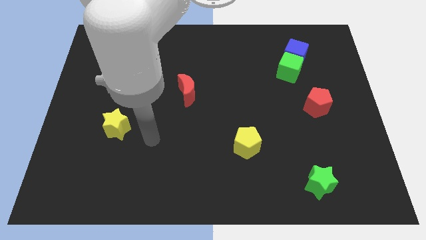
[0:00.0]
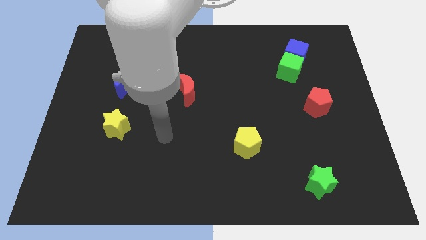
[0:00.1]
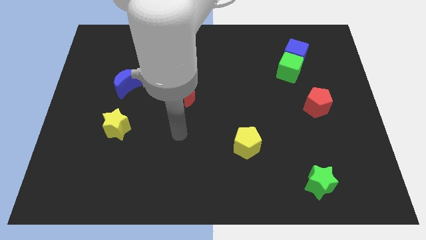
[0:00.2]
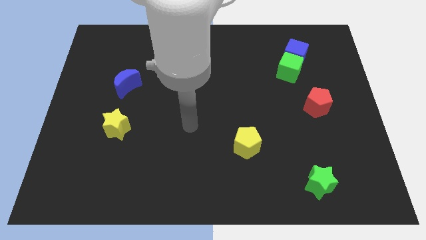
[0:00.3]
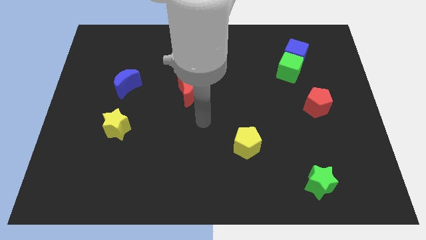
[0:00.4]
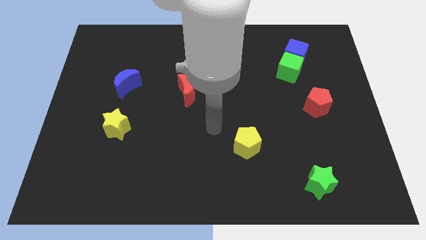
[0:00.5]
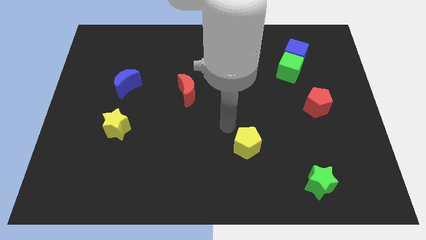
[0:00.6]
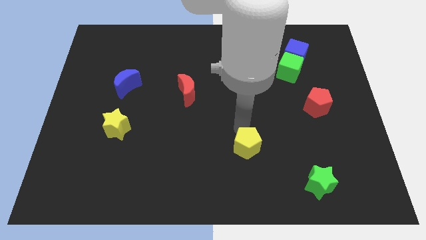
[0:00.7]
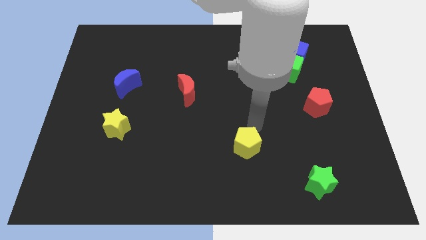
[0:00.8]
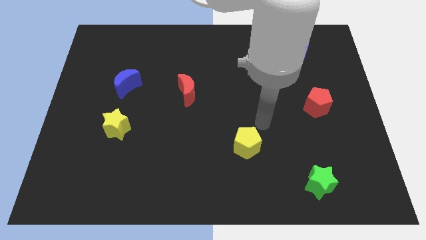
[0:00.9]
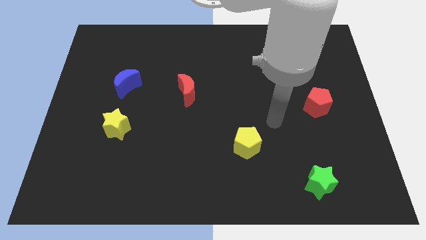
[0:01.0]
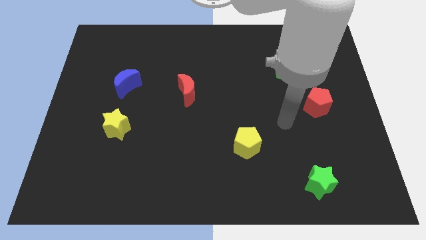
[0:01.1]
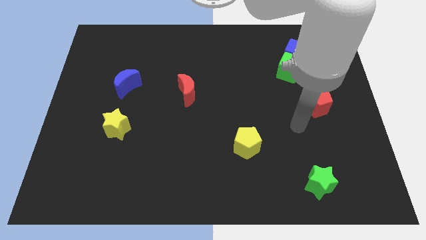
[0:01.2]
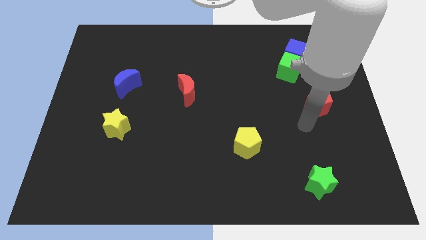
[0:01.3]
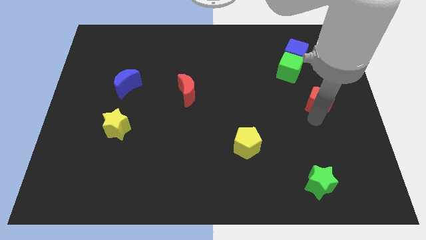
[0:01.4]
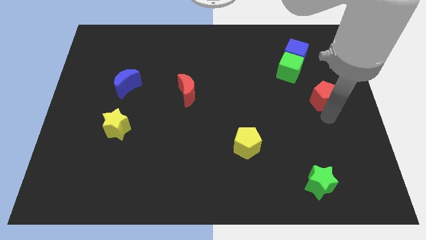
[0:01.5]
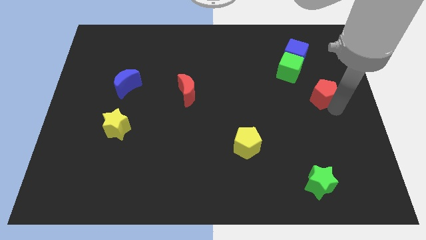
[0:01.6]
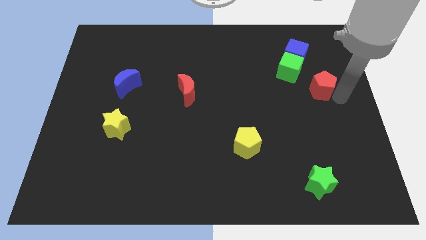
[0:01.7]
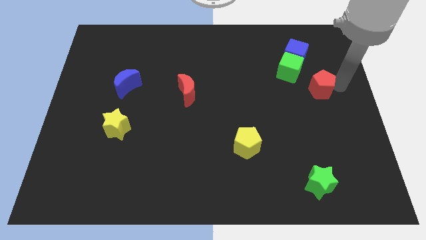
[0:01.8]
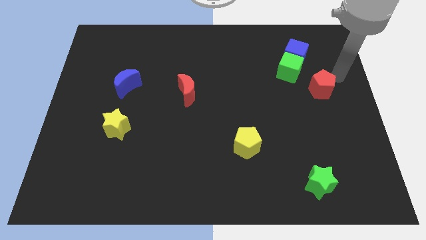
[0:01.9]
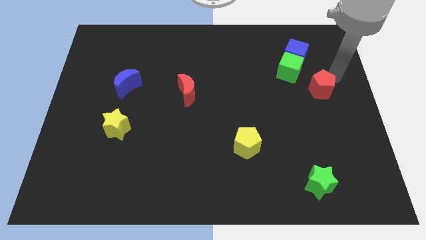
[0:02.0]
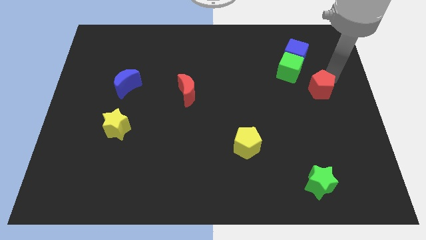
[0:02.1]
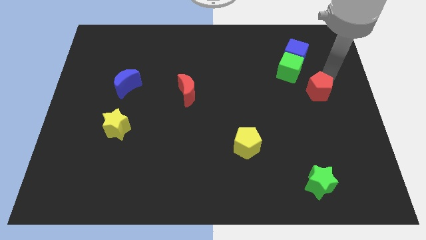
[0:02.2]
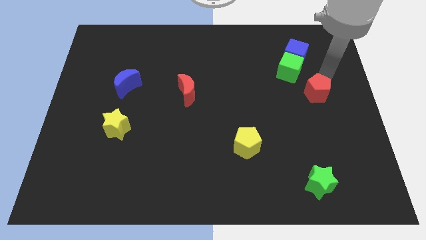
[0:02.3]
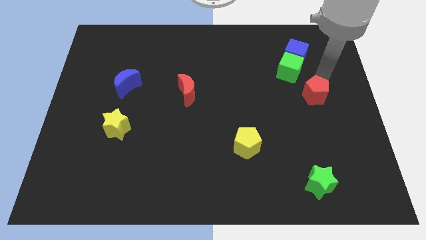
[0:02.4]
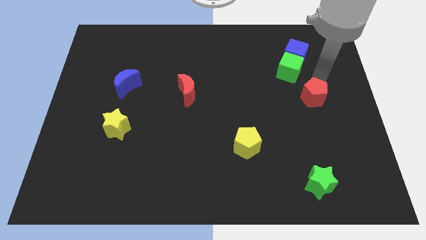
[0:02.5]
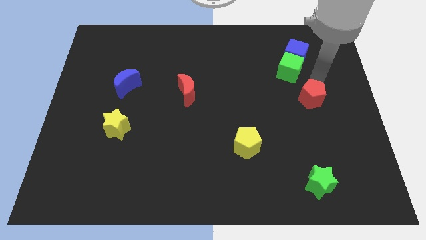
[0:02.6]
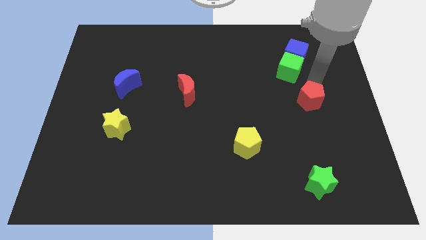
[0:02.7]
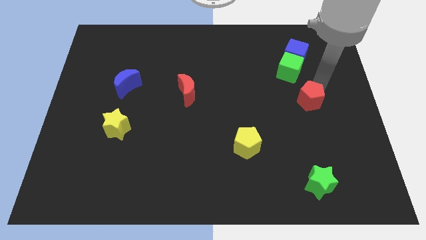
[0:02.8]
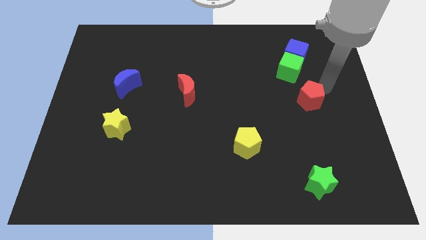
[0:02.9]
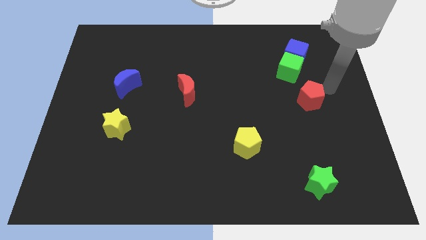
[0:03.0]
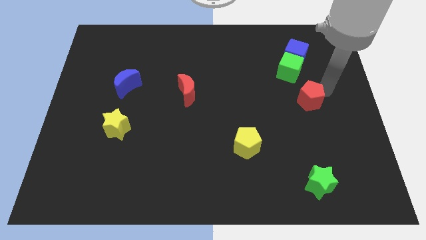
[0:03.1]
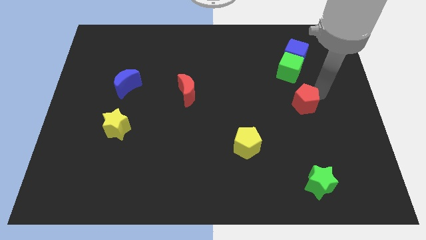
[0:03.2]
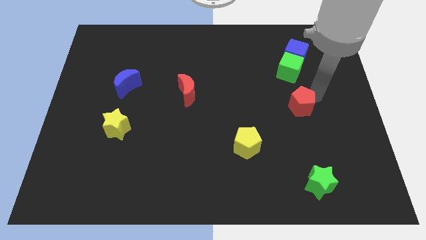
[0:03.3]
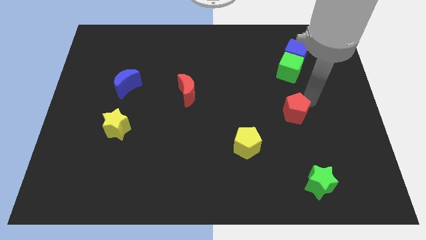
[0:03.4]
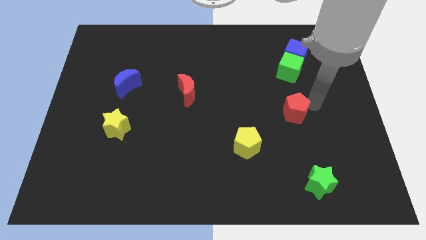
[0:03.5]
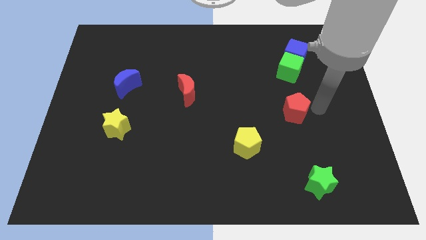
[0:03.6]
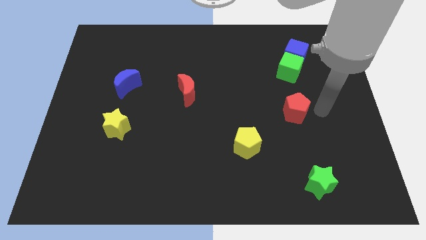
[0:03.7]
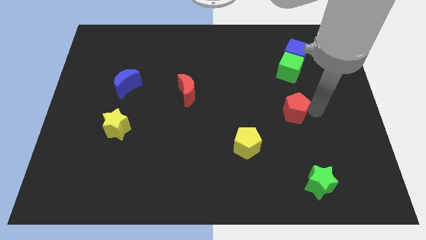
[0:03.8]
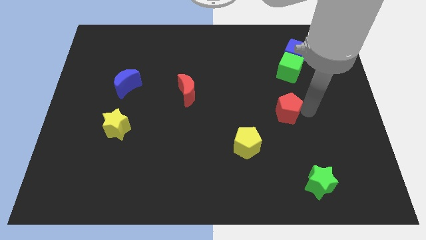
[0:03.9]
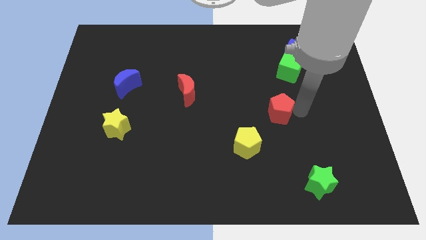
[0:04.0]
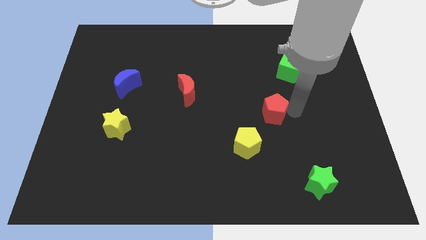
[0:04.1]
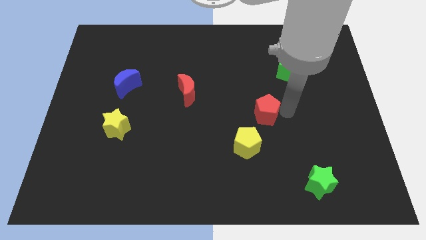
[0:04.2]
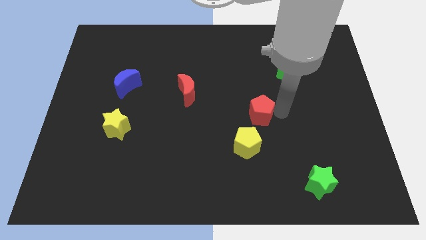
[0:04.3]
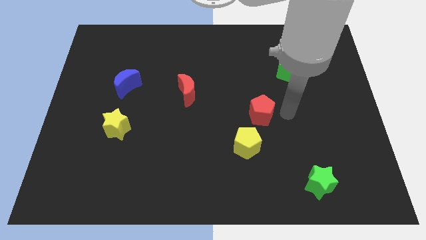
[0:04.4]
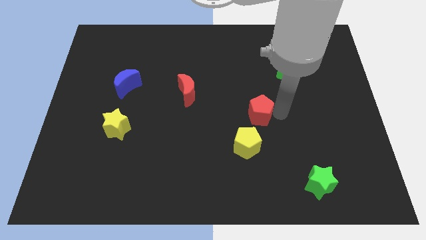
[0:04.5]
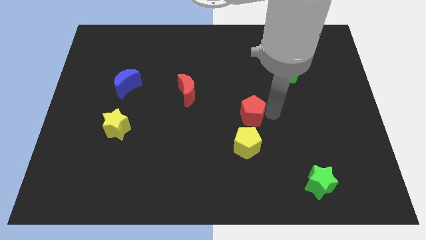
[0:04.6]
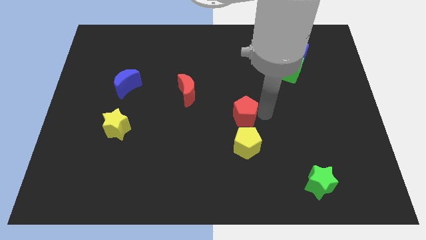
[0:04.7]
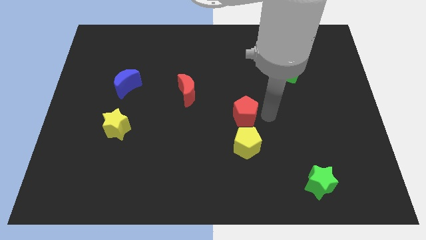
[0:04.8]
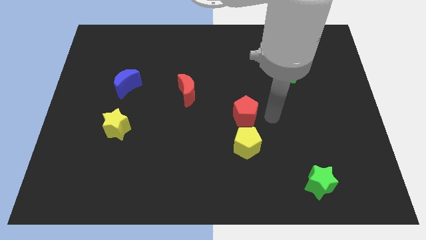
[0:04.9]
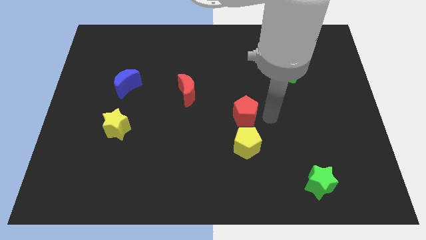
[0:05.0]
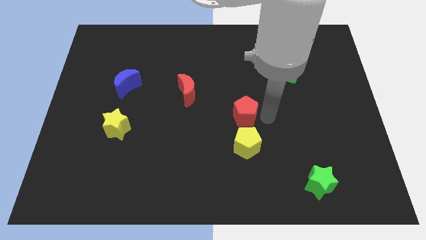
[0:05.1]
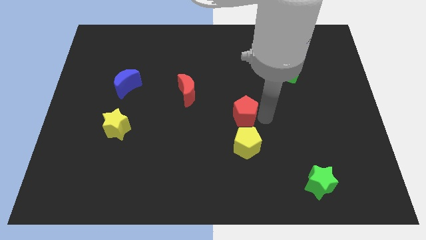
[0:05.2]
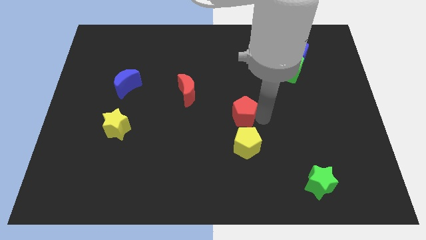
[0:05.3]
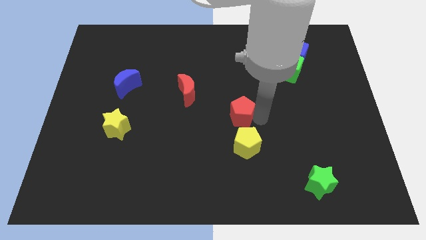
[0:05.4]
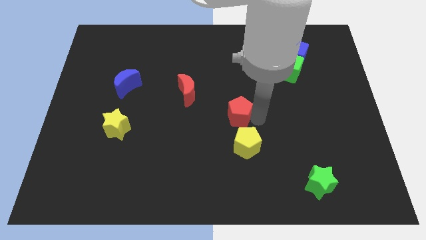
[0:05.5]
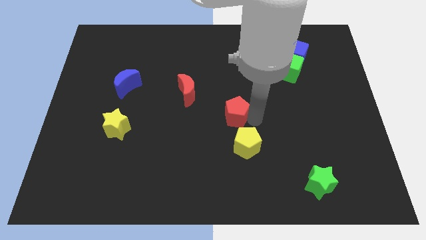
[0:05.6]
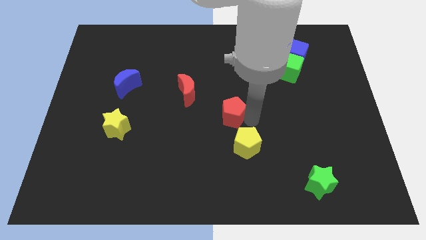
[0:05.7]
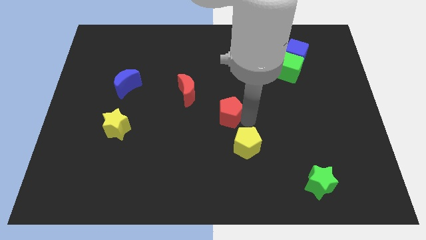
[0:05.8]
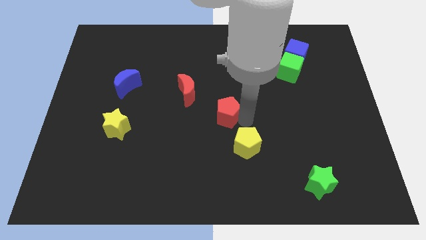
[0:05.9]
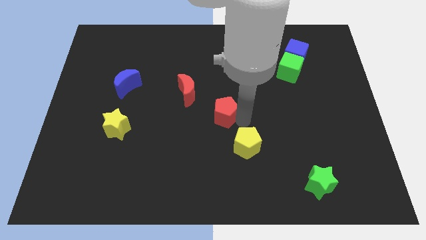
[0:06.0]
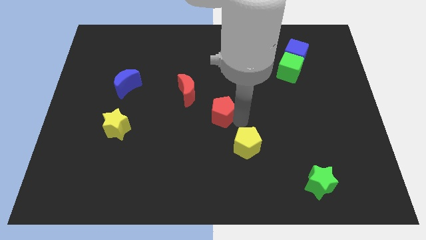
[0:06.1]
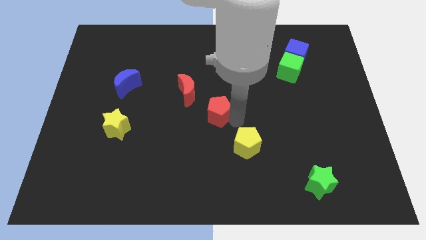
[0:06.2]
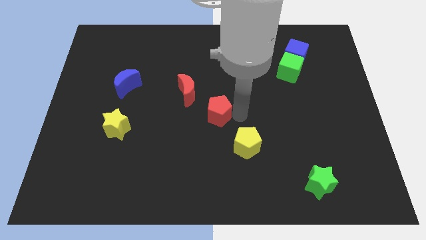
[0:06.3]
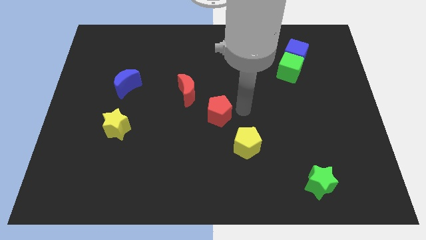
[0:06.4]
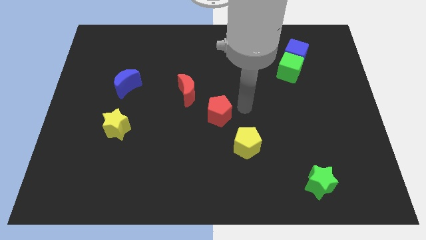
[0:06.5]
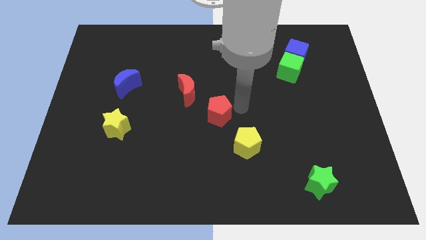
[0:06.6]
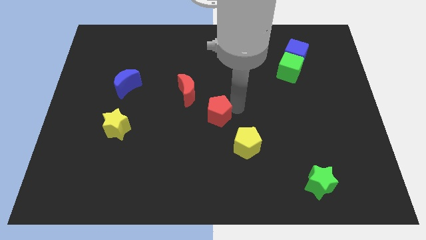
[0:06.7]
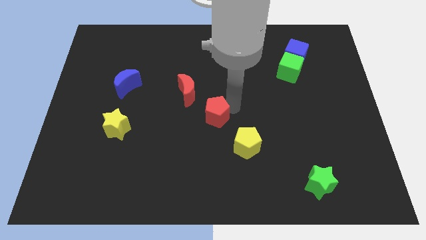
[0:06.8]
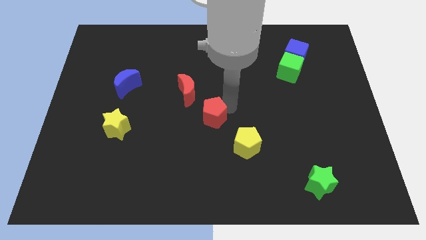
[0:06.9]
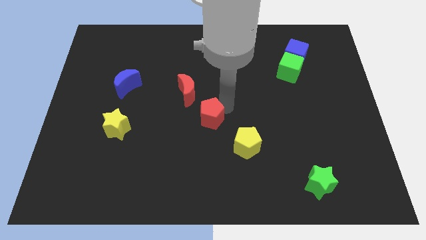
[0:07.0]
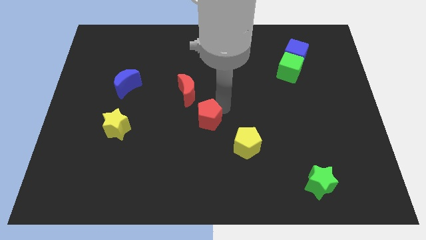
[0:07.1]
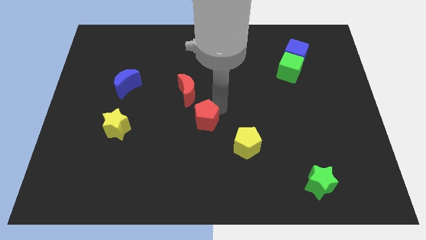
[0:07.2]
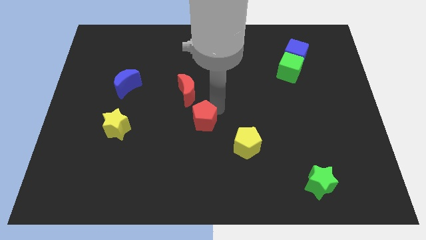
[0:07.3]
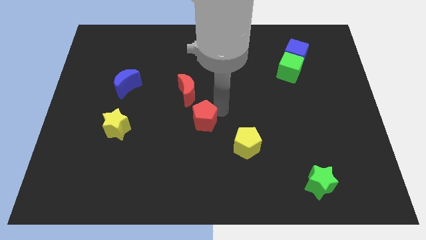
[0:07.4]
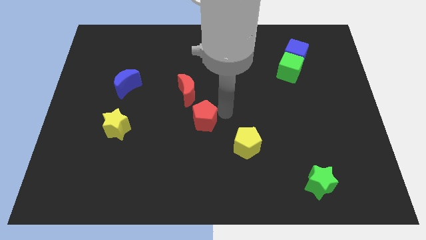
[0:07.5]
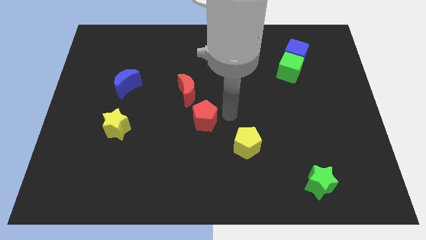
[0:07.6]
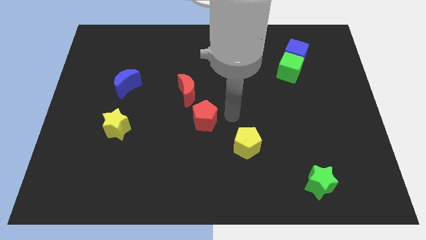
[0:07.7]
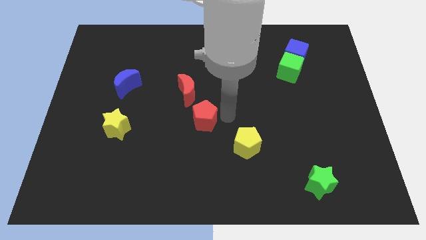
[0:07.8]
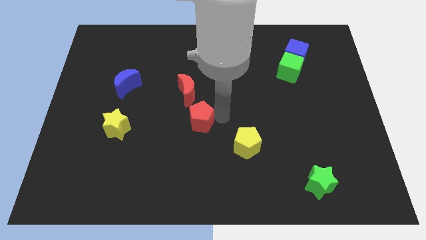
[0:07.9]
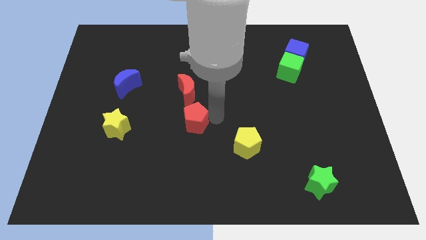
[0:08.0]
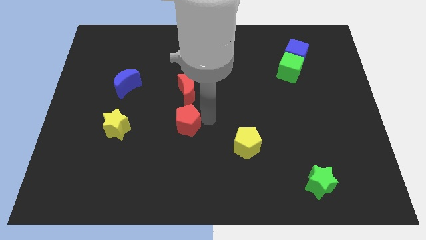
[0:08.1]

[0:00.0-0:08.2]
push the red pentagon to the right of the yellow star

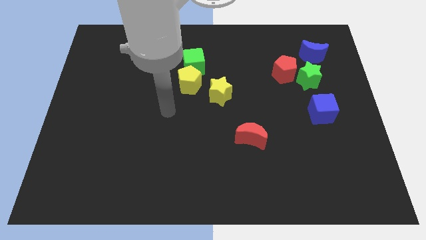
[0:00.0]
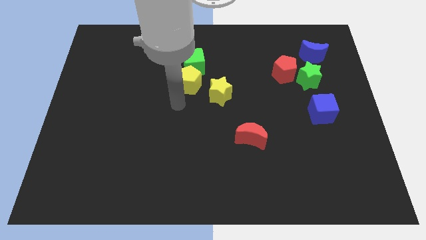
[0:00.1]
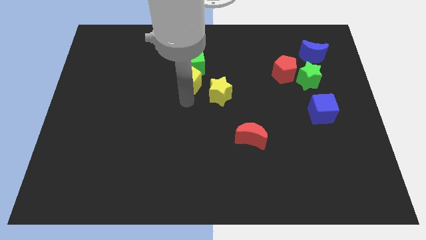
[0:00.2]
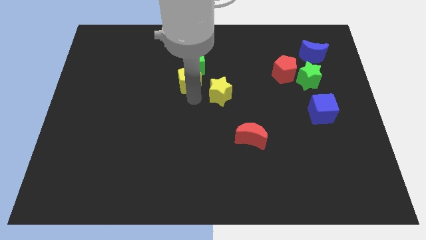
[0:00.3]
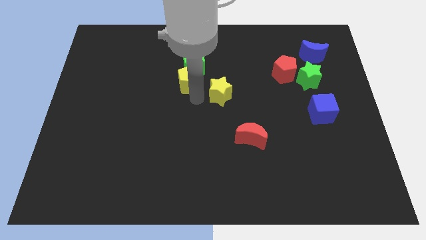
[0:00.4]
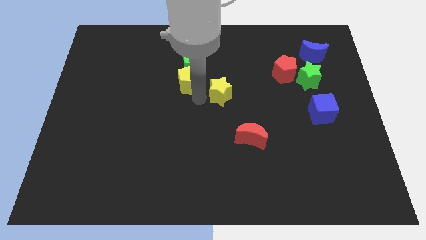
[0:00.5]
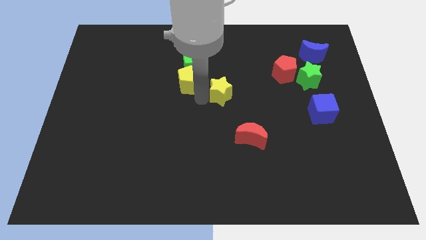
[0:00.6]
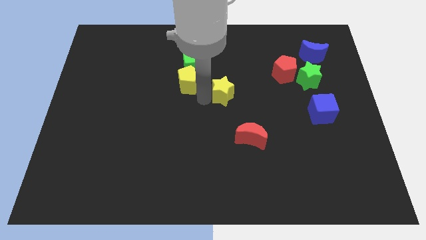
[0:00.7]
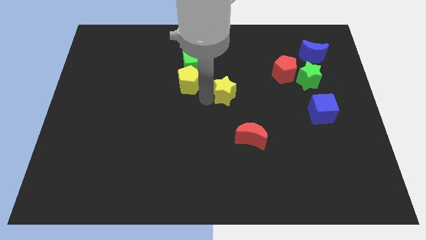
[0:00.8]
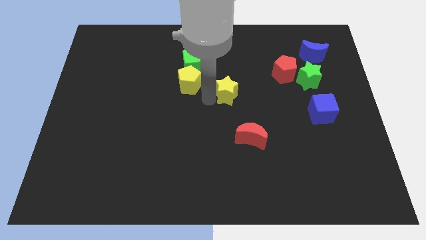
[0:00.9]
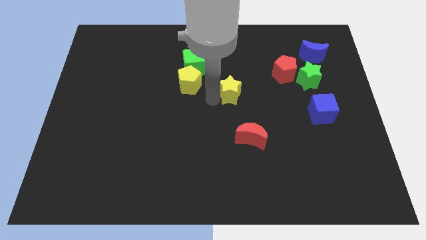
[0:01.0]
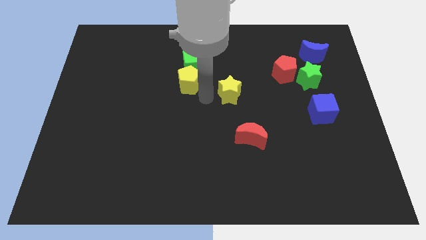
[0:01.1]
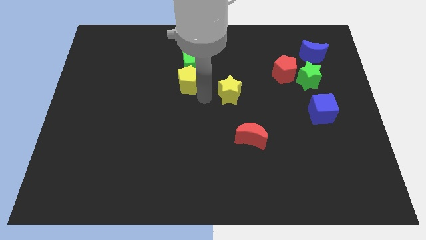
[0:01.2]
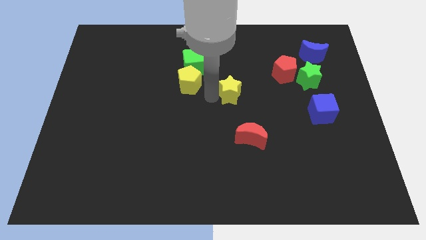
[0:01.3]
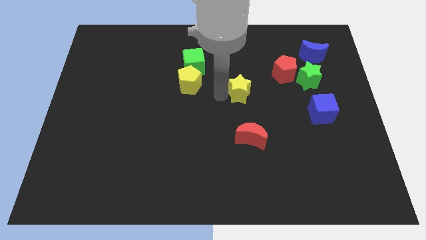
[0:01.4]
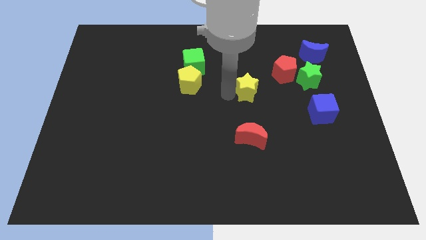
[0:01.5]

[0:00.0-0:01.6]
slide the yellow star to the bottom left of the red pentagon
